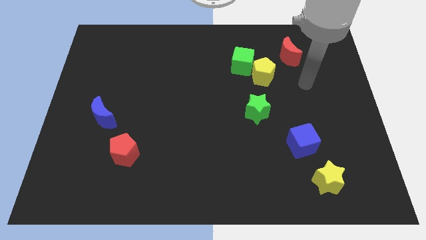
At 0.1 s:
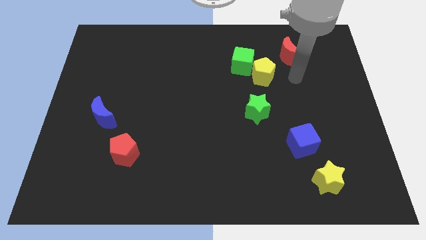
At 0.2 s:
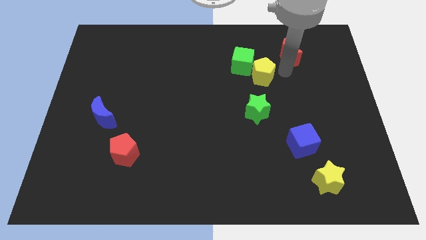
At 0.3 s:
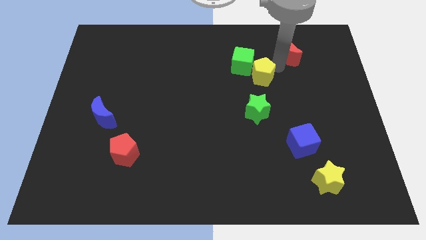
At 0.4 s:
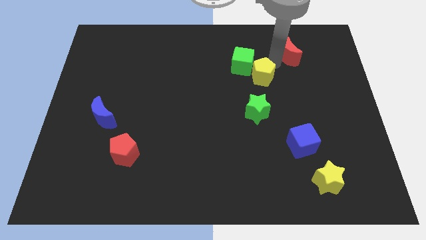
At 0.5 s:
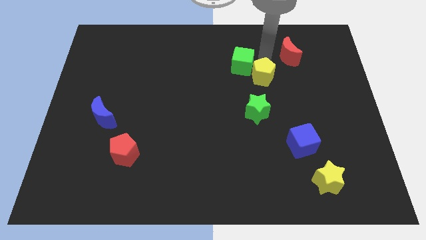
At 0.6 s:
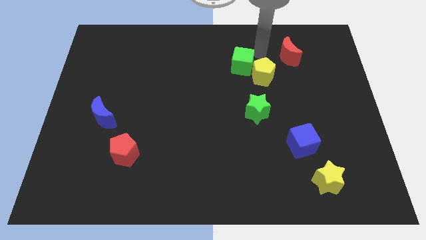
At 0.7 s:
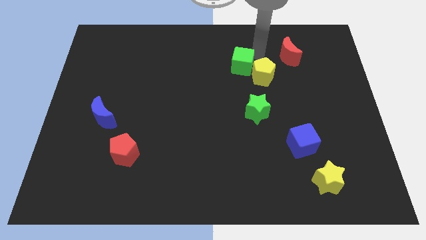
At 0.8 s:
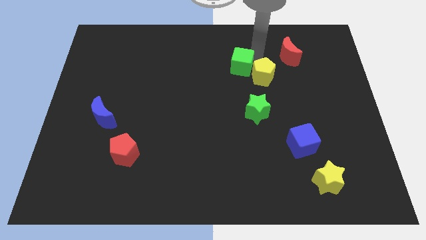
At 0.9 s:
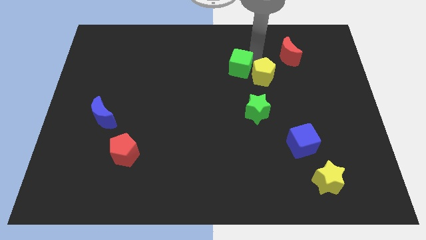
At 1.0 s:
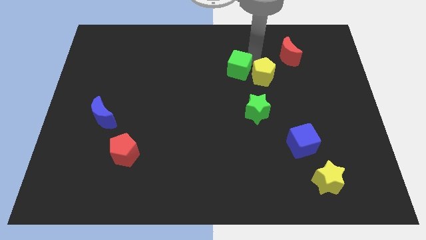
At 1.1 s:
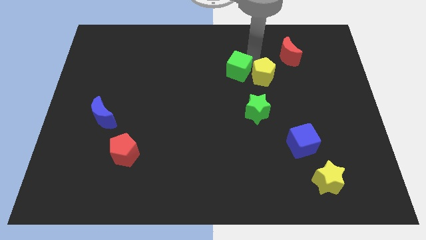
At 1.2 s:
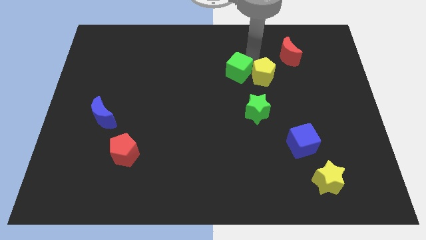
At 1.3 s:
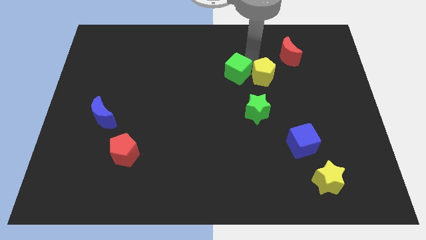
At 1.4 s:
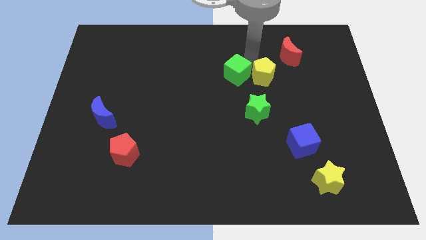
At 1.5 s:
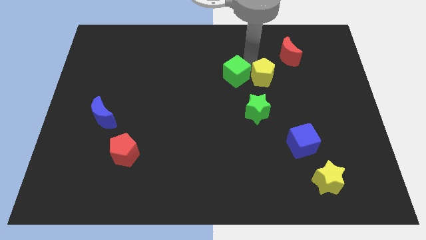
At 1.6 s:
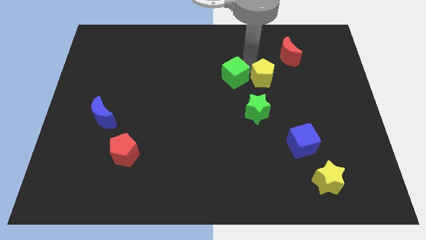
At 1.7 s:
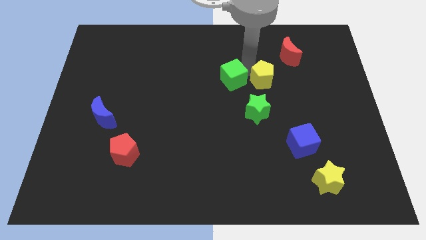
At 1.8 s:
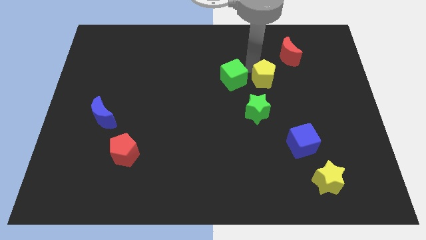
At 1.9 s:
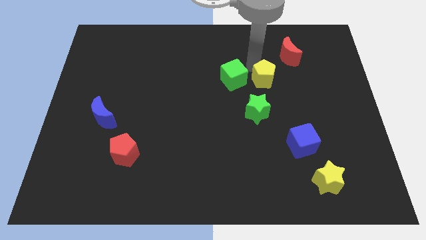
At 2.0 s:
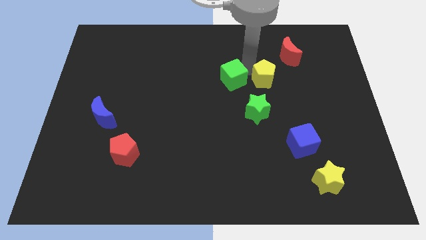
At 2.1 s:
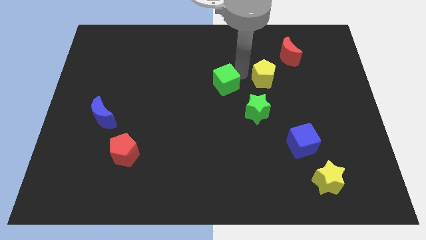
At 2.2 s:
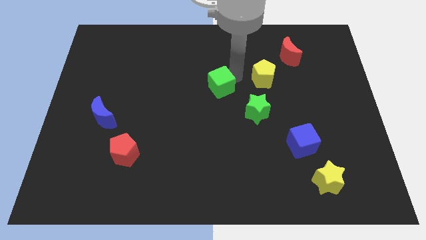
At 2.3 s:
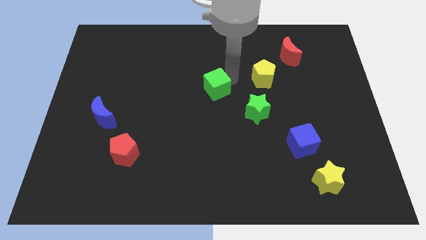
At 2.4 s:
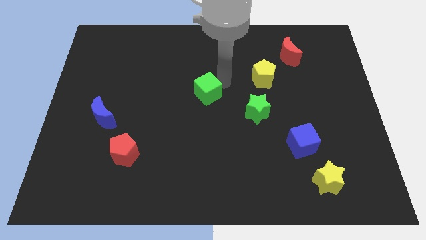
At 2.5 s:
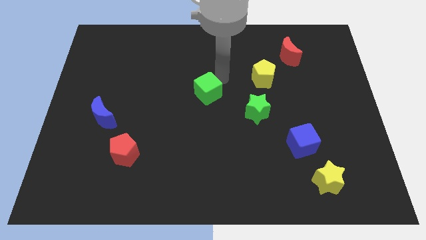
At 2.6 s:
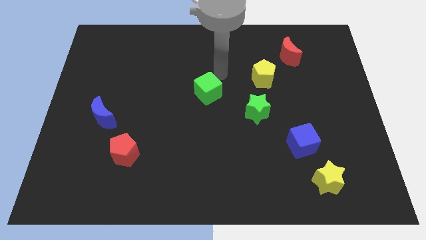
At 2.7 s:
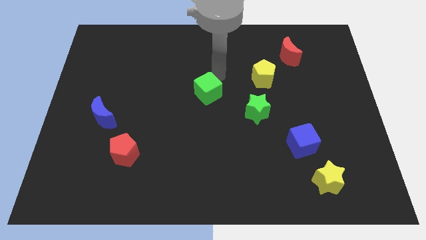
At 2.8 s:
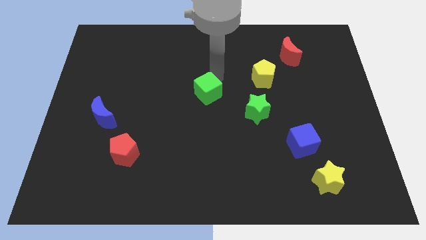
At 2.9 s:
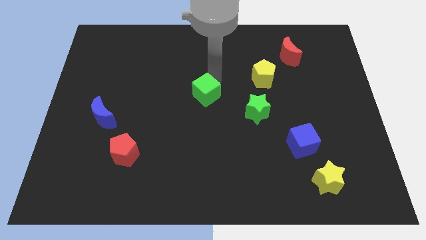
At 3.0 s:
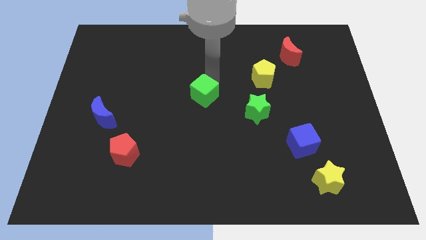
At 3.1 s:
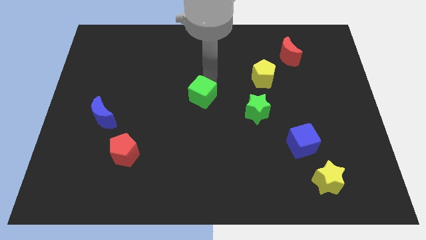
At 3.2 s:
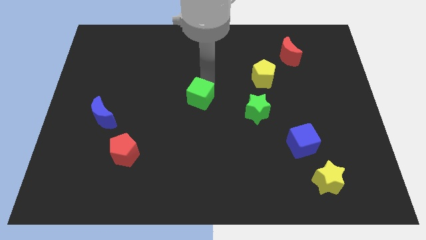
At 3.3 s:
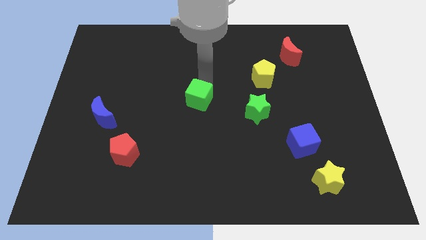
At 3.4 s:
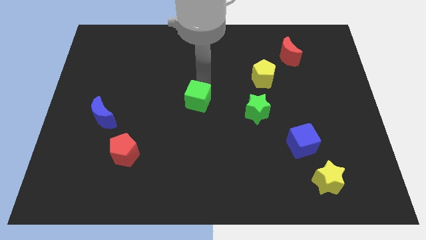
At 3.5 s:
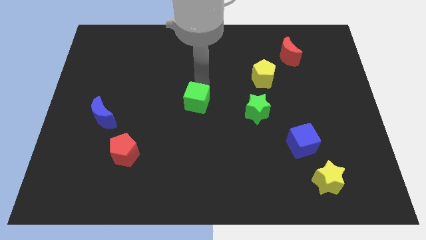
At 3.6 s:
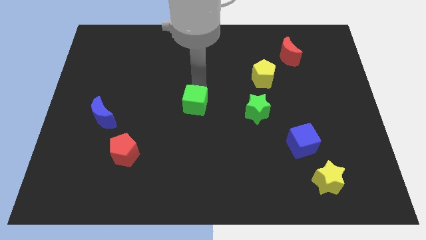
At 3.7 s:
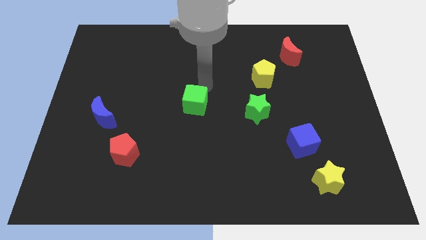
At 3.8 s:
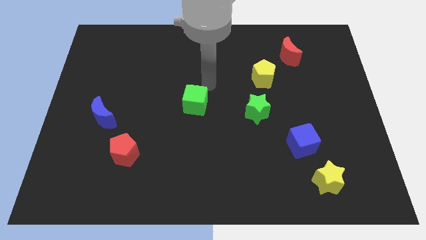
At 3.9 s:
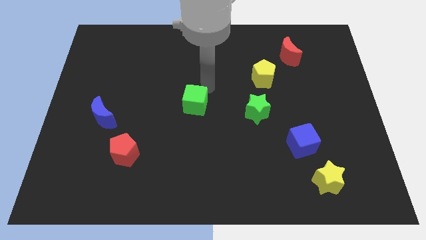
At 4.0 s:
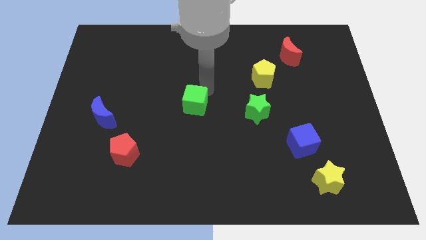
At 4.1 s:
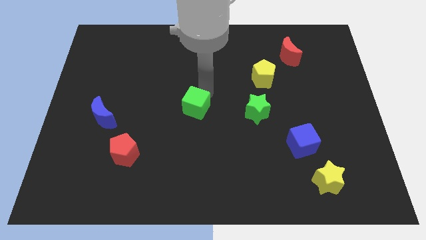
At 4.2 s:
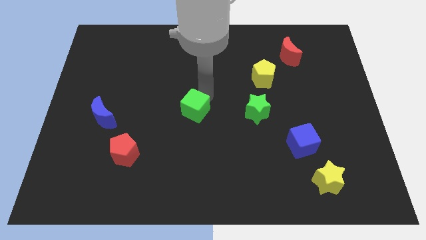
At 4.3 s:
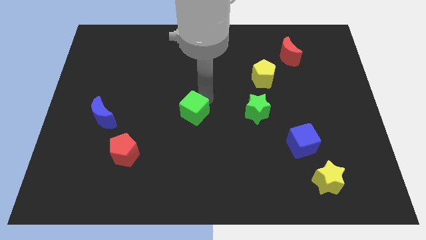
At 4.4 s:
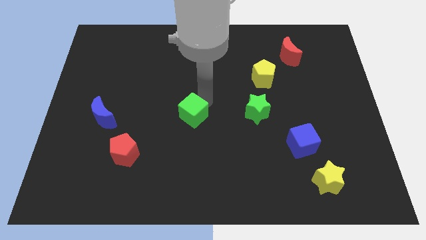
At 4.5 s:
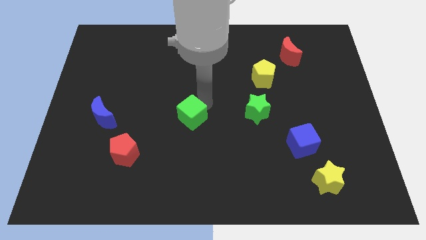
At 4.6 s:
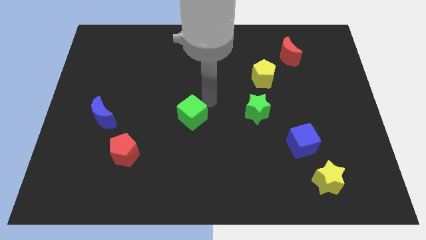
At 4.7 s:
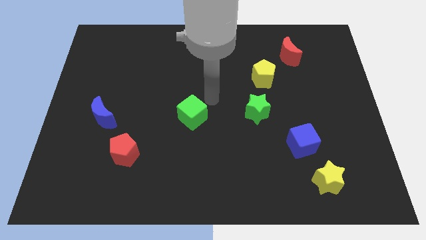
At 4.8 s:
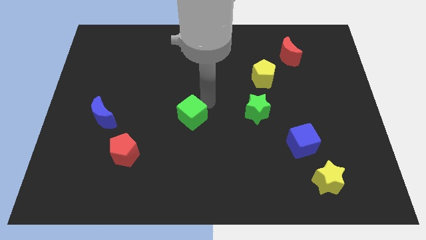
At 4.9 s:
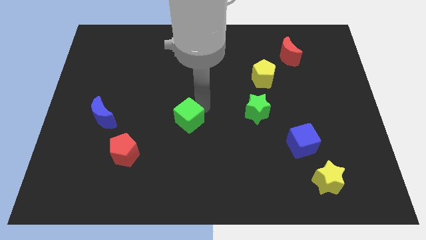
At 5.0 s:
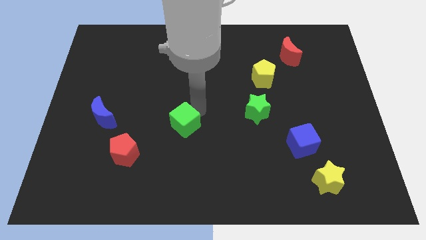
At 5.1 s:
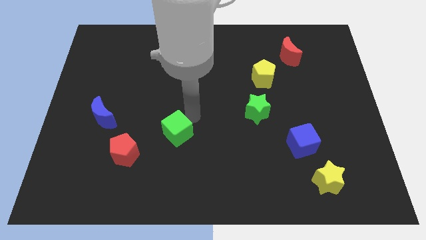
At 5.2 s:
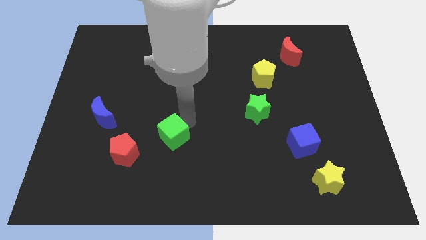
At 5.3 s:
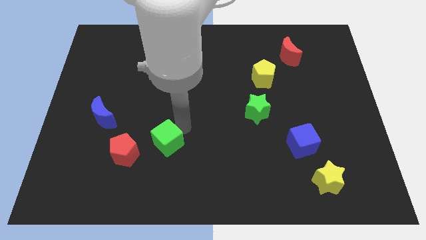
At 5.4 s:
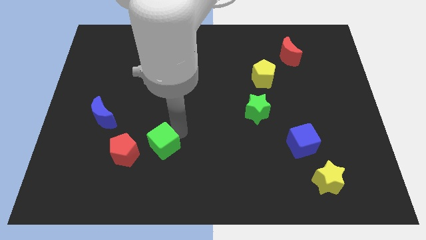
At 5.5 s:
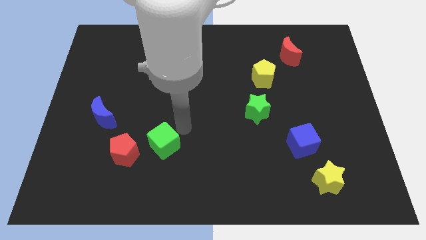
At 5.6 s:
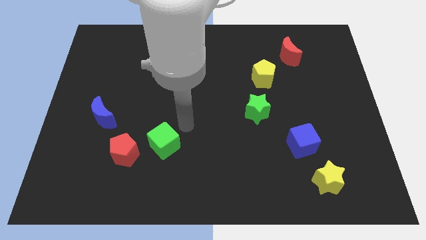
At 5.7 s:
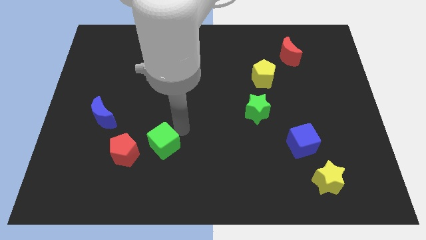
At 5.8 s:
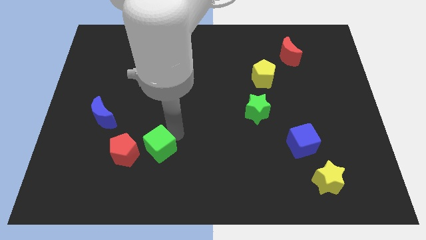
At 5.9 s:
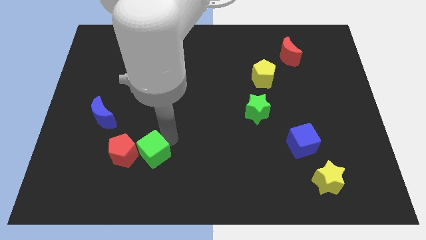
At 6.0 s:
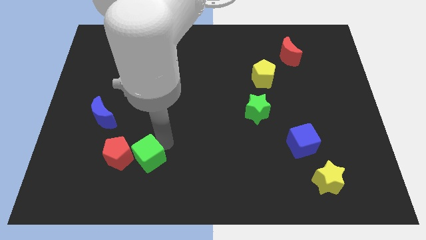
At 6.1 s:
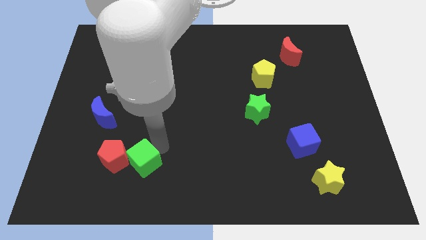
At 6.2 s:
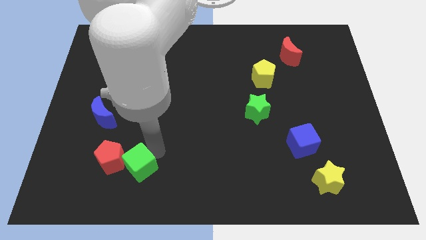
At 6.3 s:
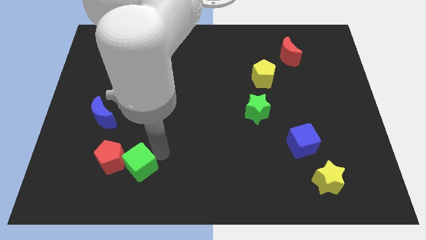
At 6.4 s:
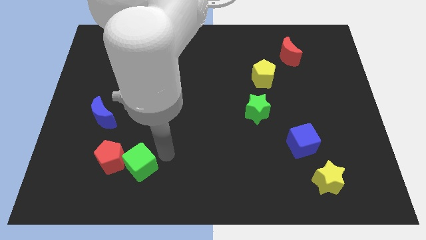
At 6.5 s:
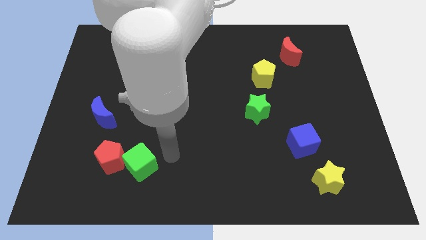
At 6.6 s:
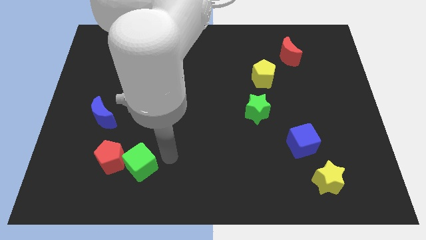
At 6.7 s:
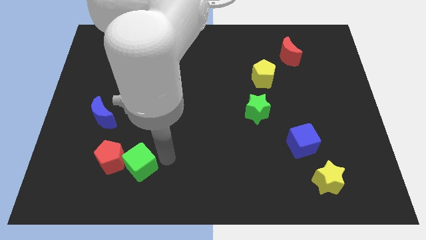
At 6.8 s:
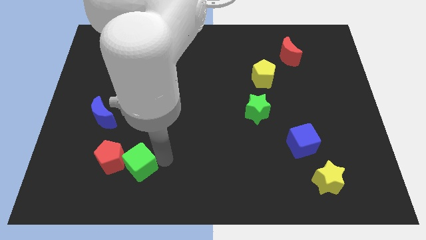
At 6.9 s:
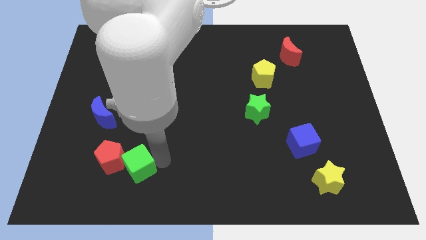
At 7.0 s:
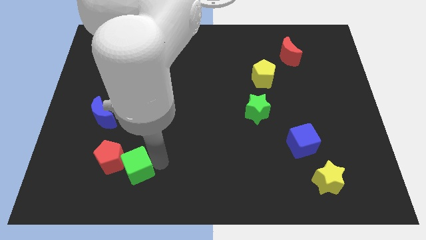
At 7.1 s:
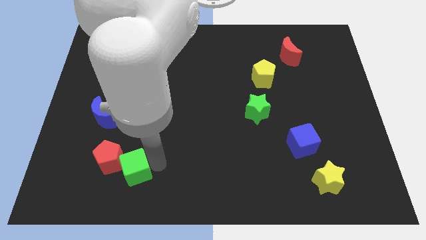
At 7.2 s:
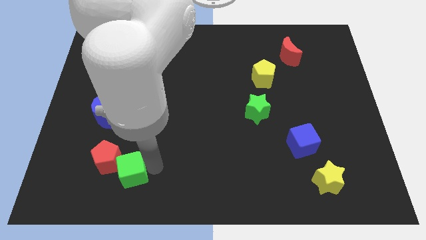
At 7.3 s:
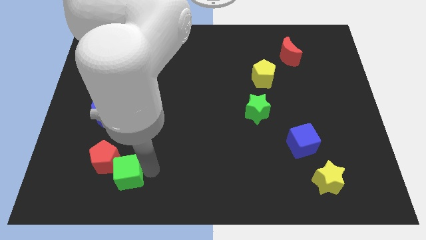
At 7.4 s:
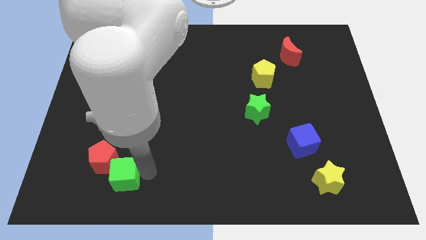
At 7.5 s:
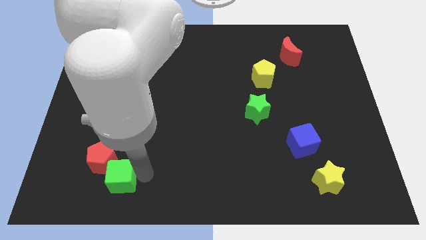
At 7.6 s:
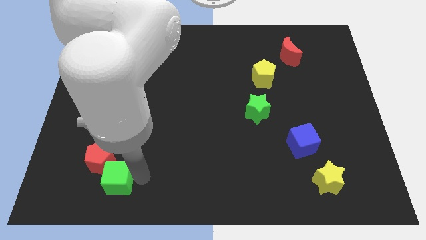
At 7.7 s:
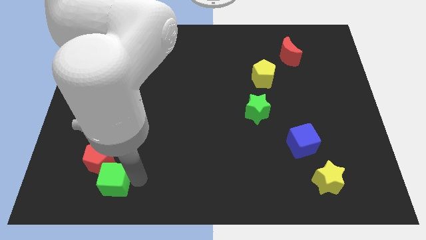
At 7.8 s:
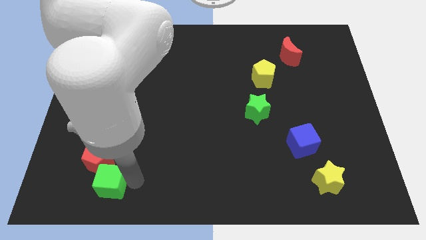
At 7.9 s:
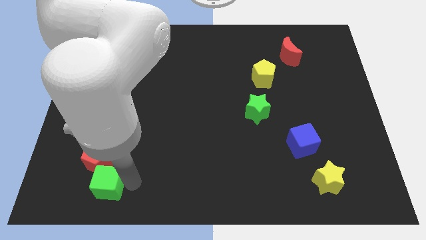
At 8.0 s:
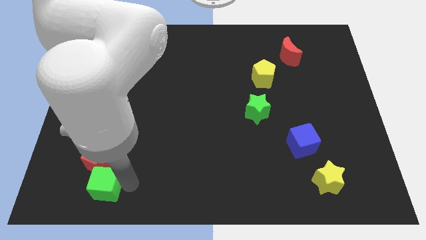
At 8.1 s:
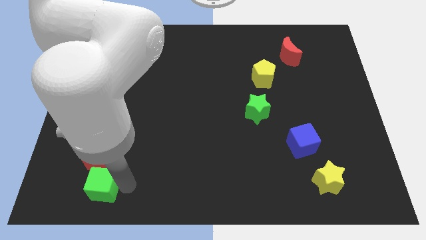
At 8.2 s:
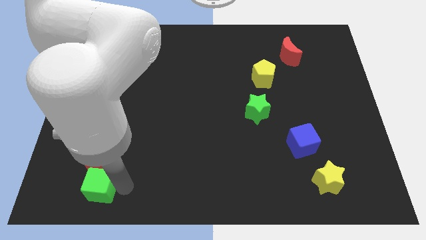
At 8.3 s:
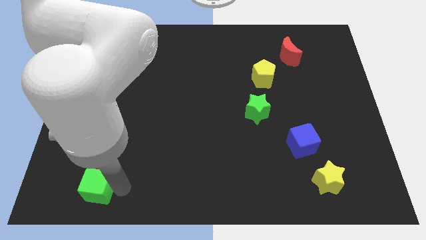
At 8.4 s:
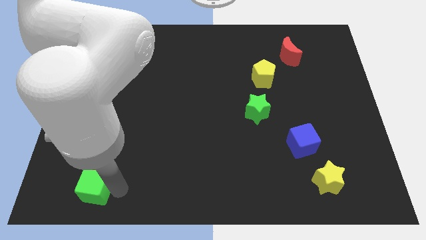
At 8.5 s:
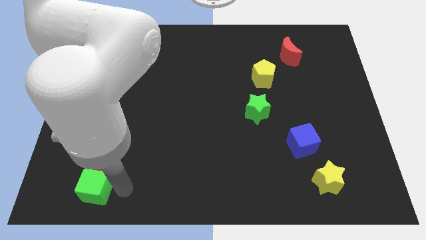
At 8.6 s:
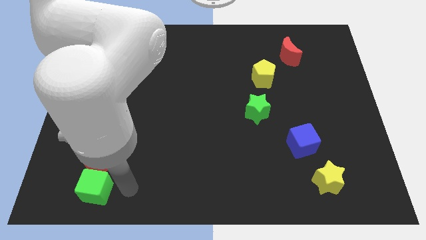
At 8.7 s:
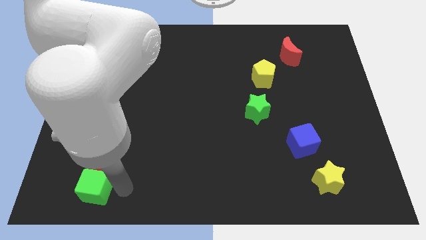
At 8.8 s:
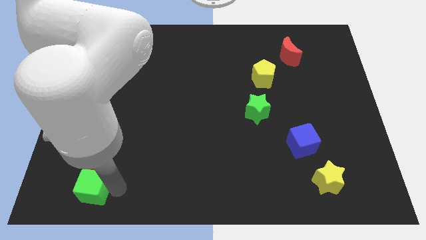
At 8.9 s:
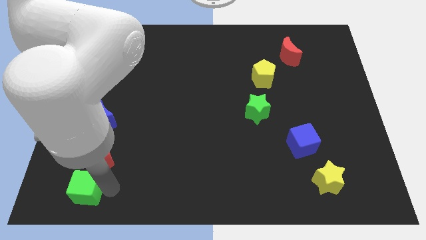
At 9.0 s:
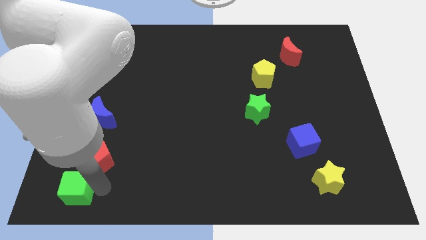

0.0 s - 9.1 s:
move the green cube to the bottom left of the board
